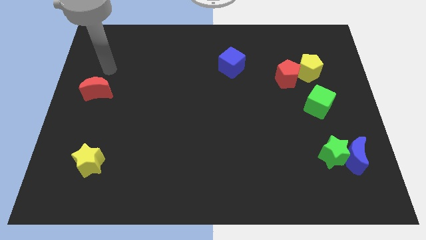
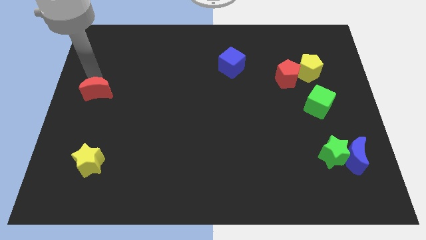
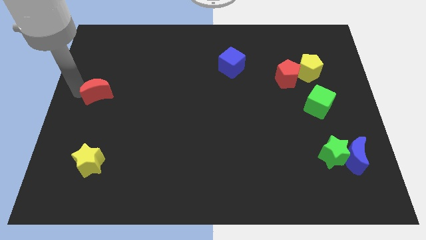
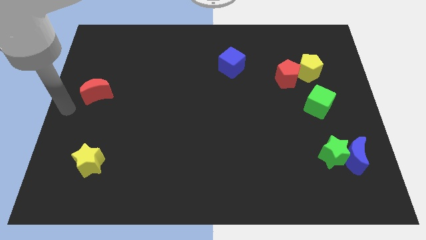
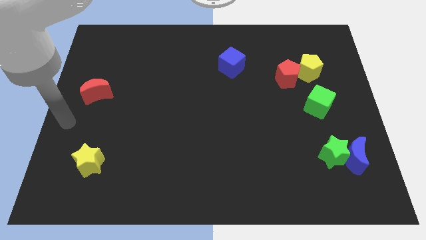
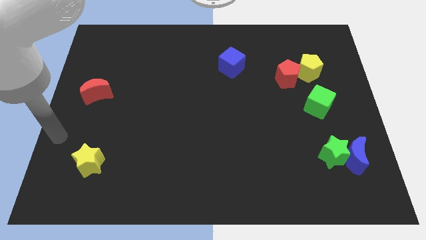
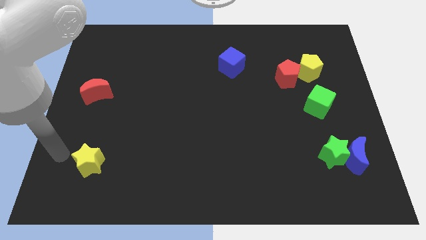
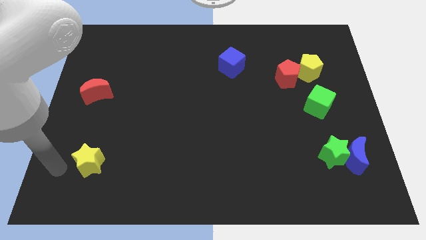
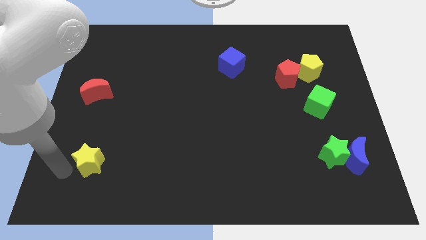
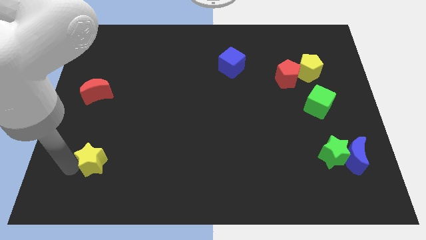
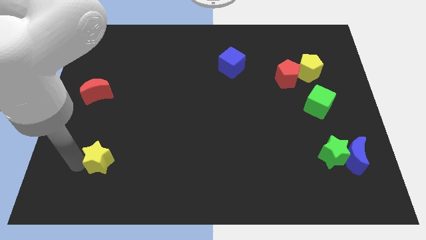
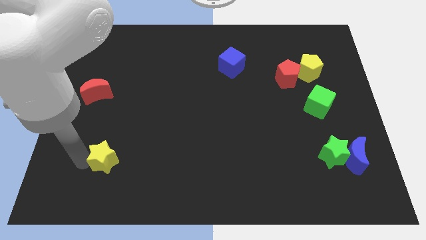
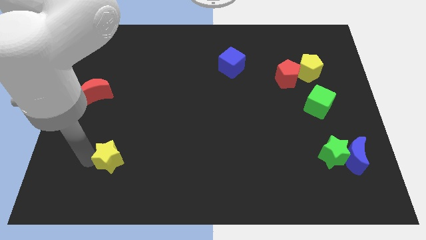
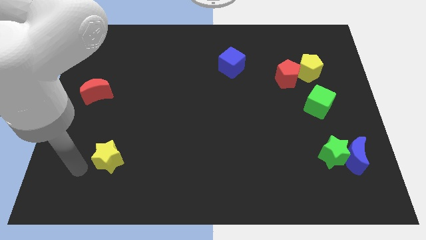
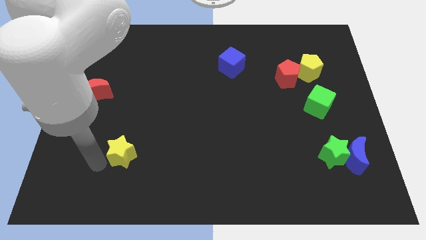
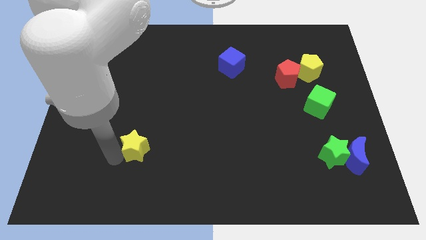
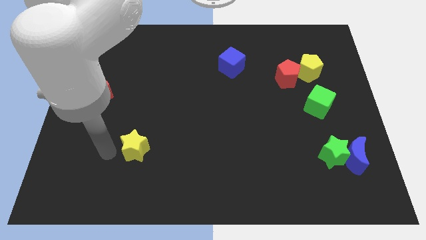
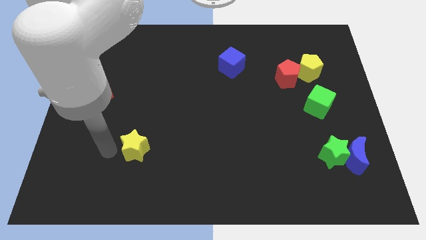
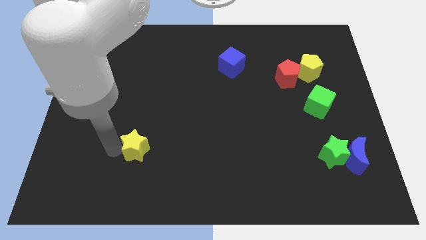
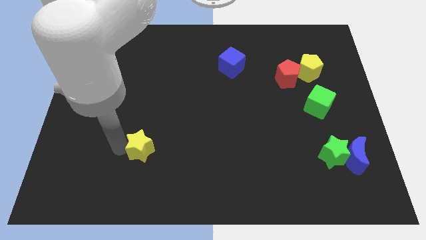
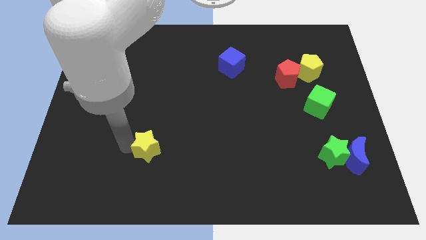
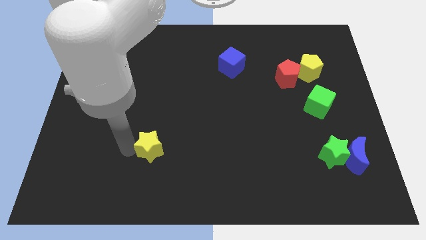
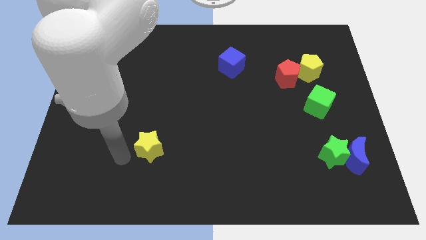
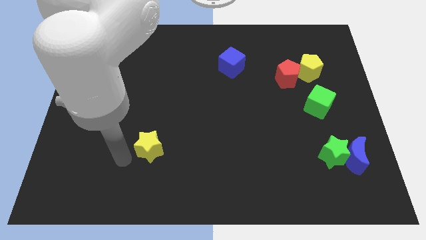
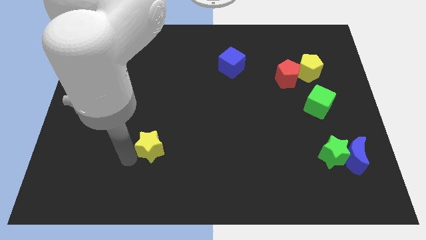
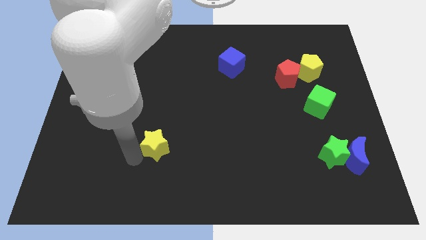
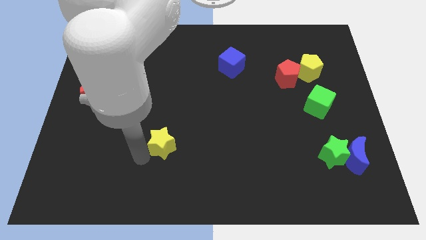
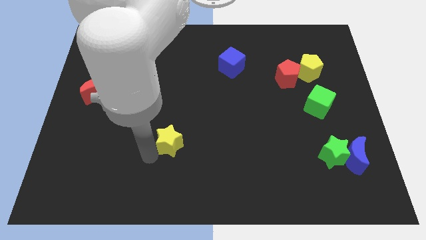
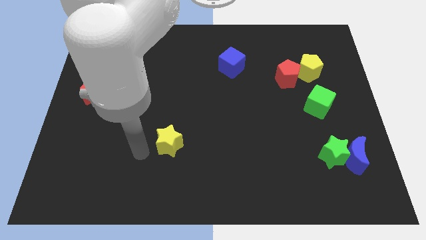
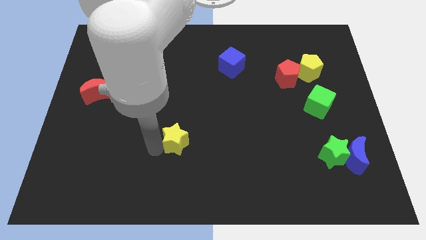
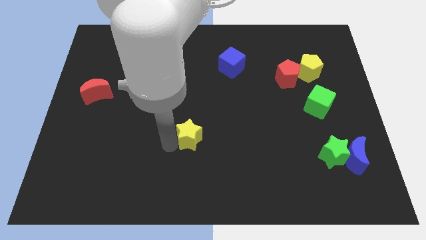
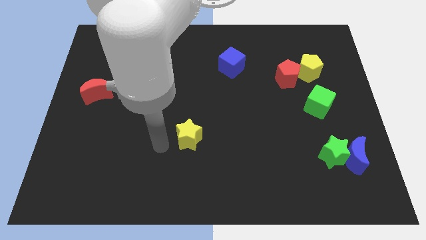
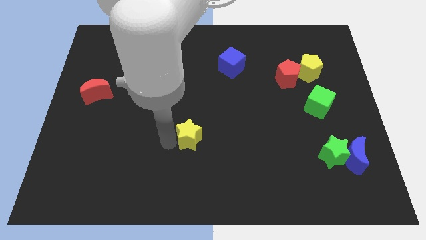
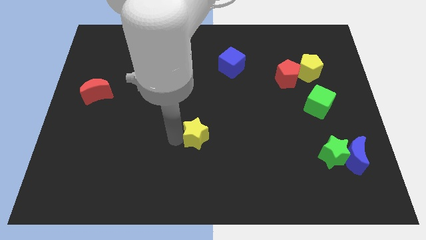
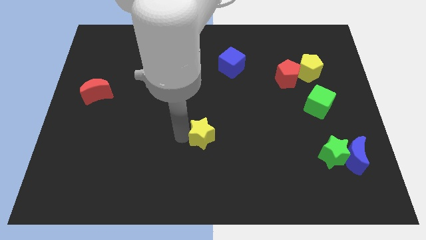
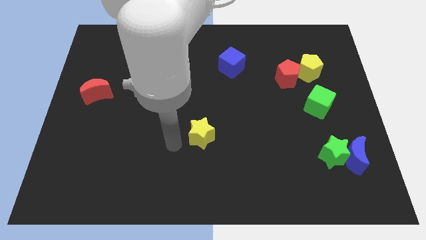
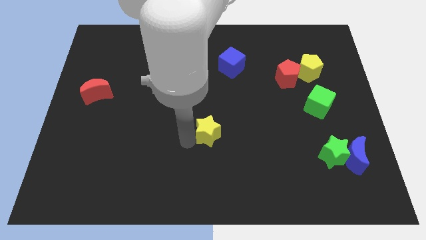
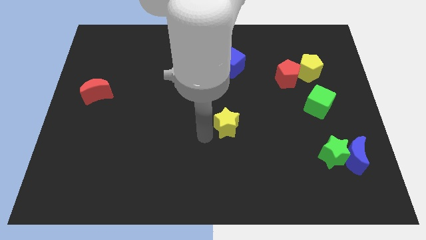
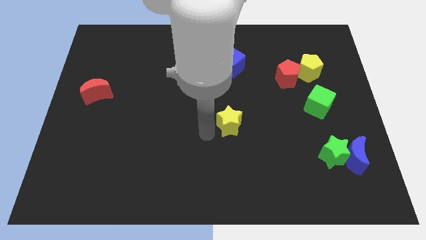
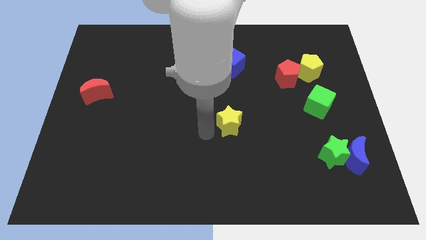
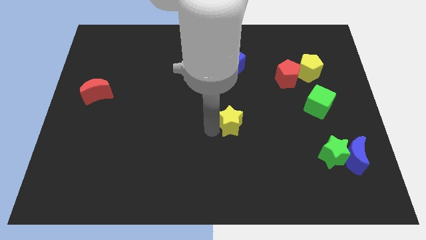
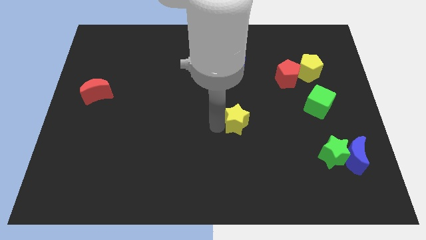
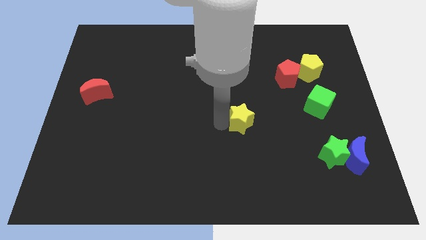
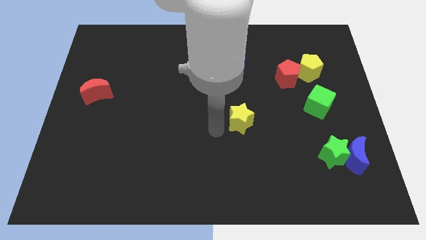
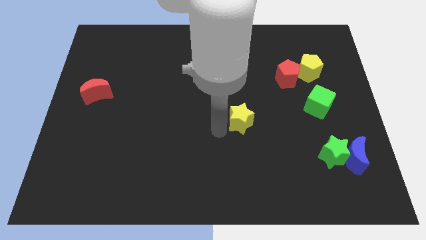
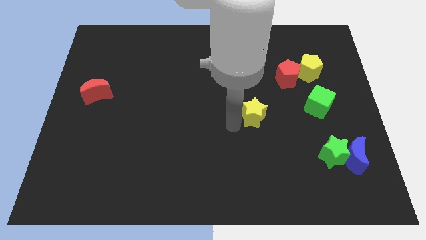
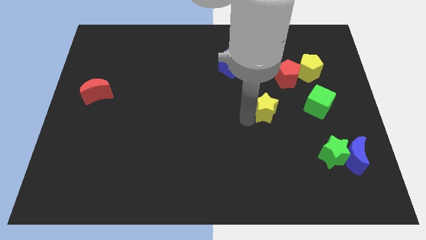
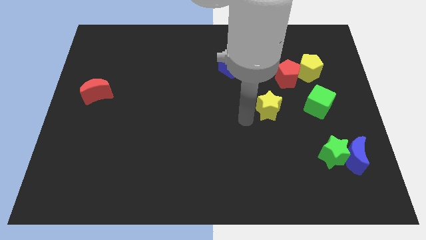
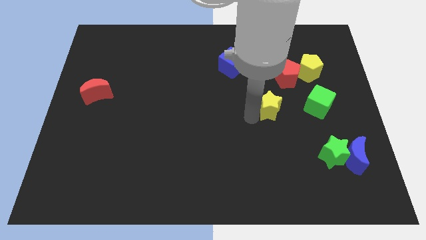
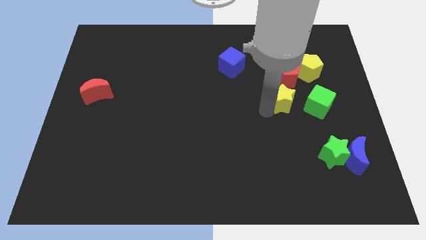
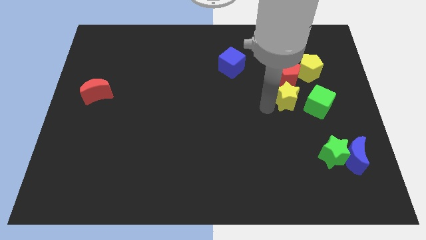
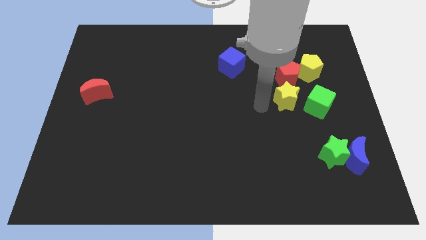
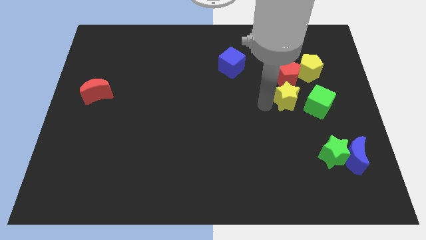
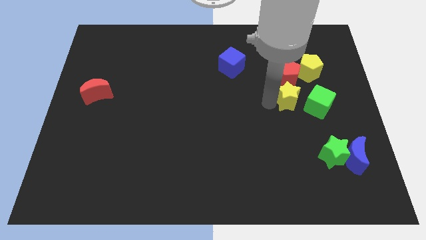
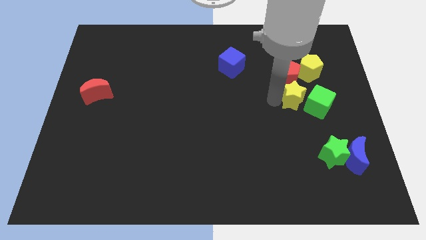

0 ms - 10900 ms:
move the yellow star diagonally down and to the right of the red pentagon

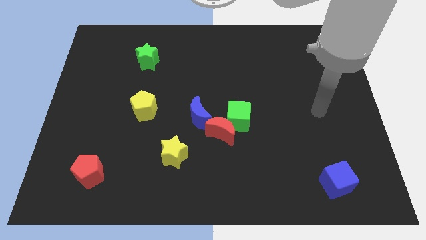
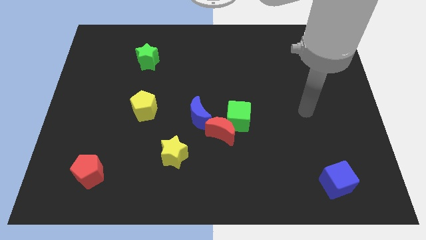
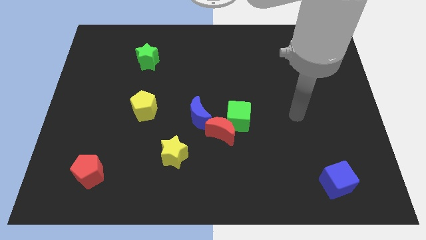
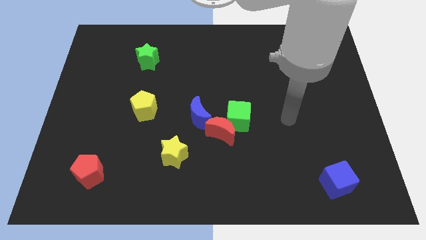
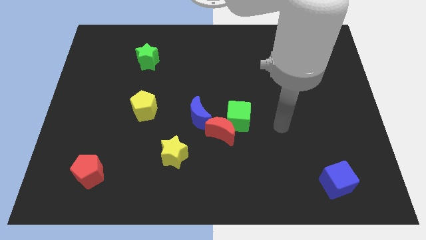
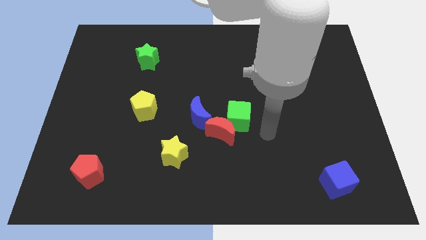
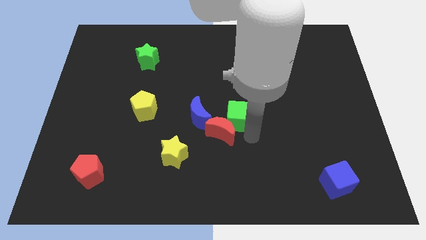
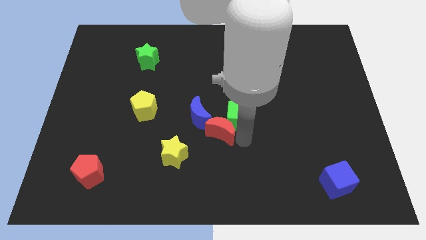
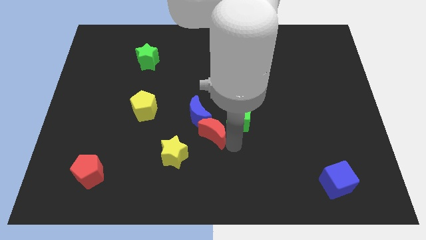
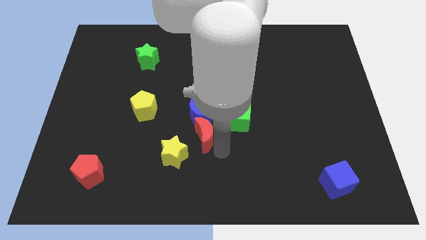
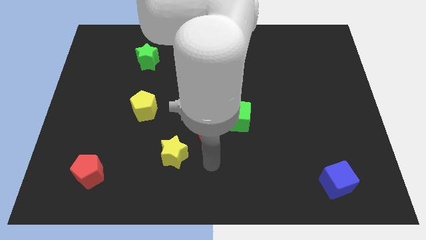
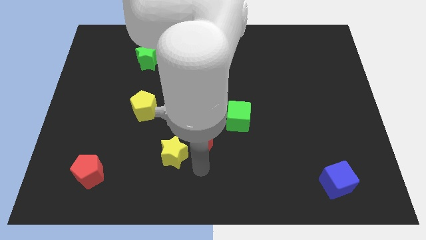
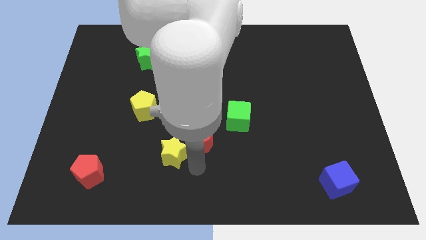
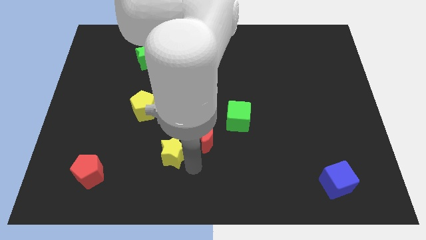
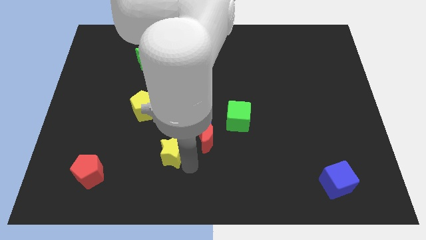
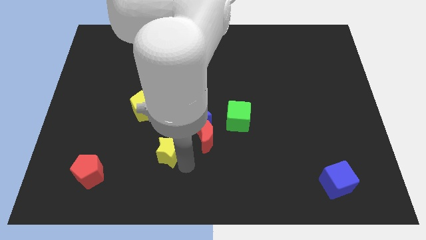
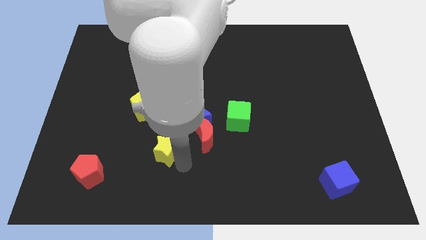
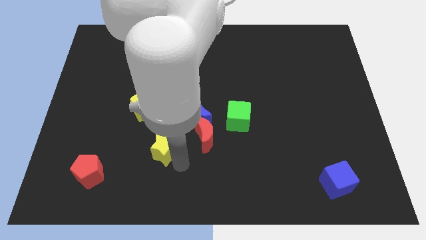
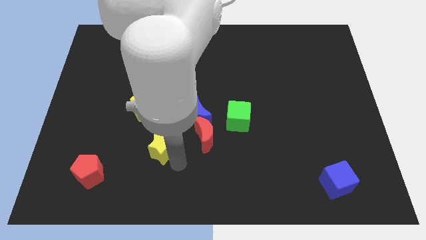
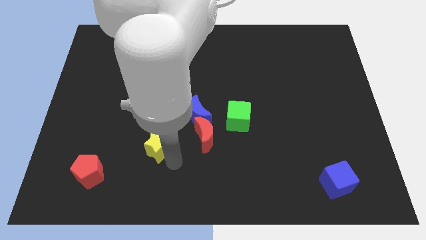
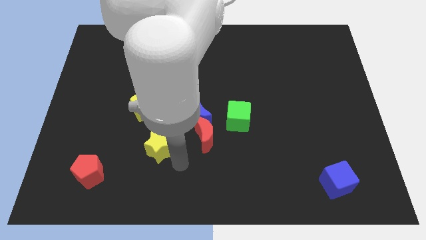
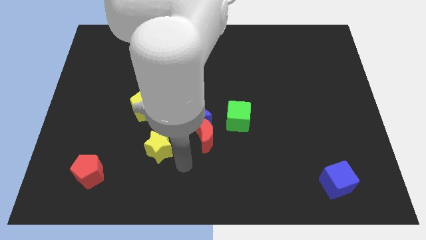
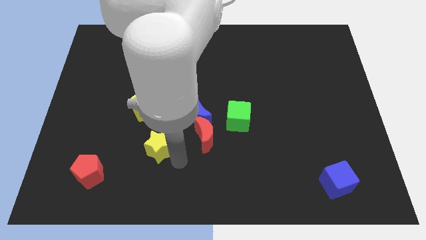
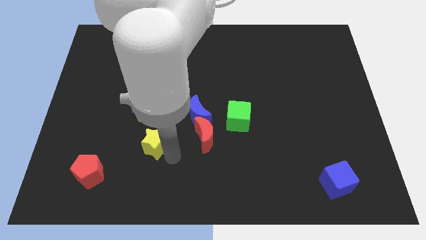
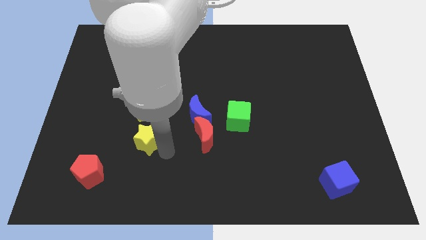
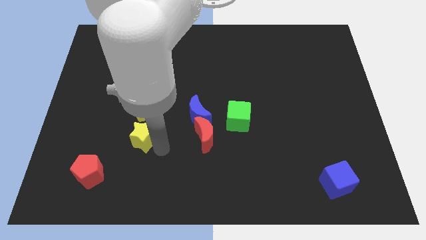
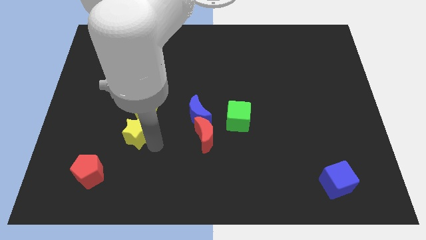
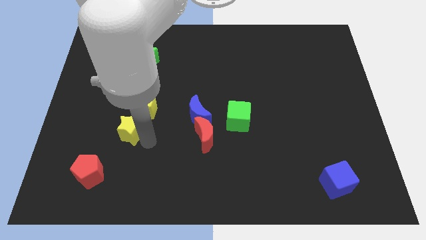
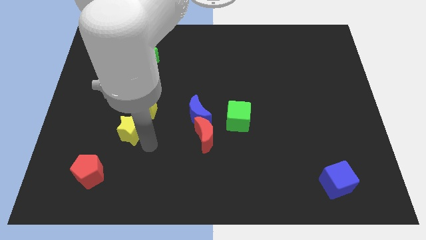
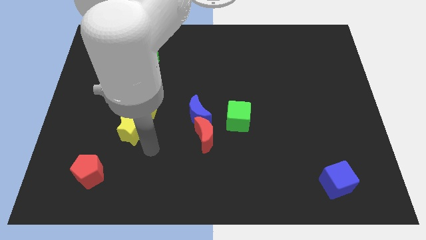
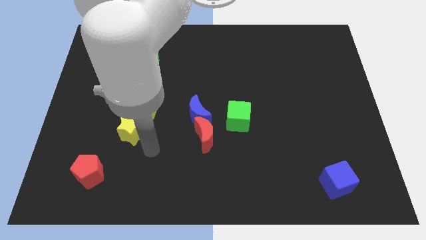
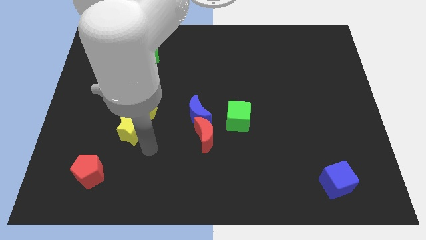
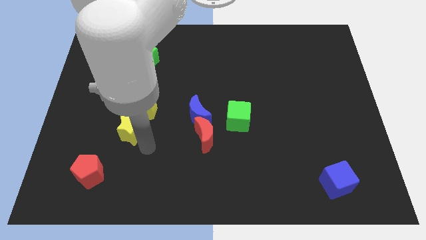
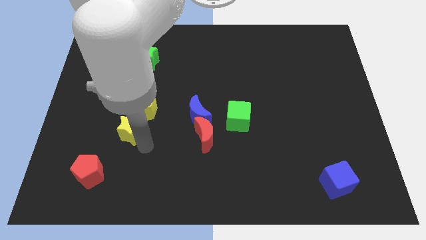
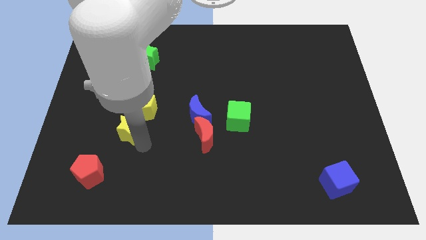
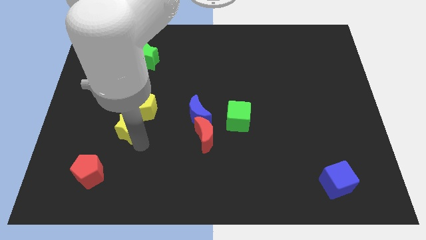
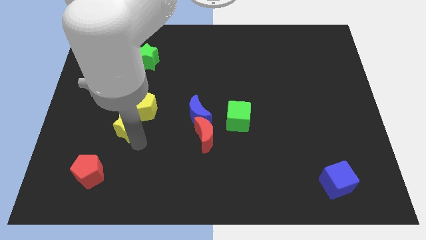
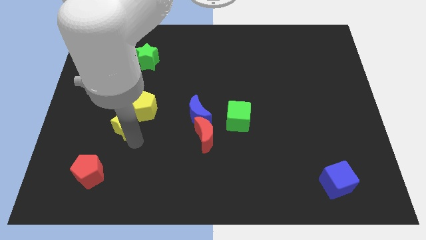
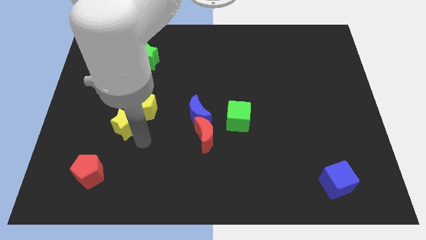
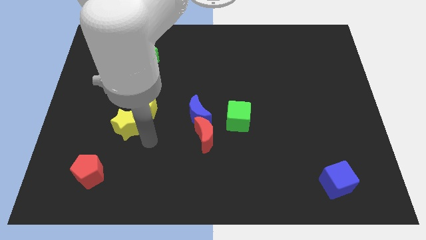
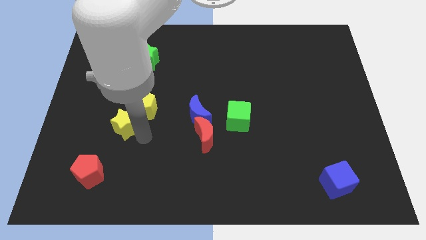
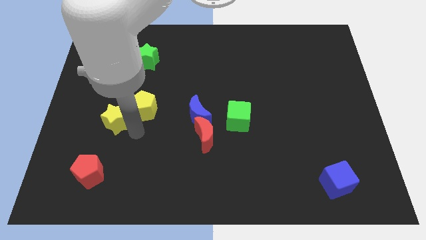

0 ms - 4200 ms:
push the yellow star to the left of the yellow pentagon
